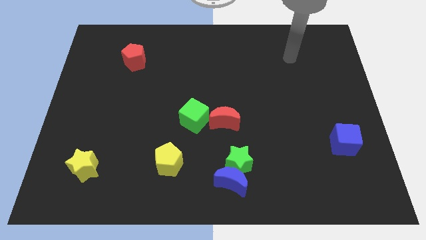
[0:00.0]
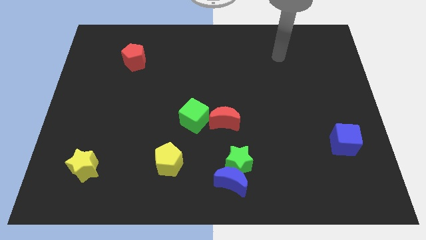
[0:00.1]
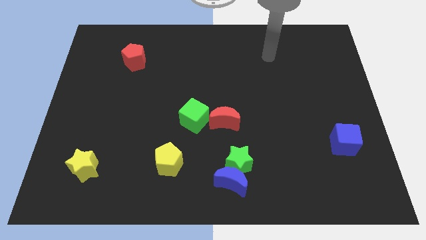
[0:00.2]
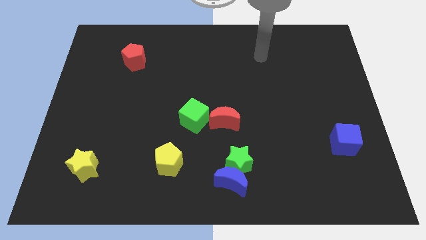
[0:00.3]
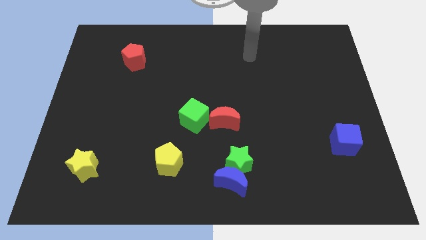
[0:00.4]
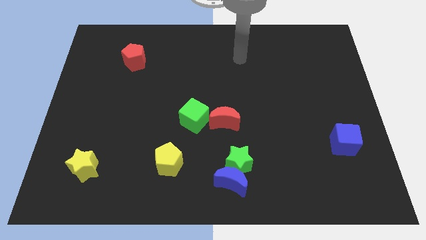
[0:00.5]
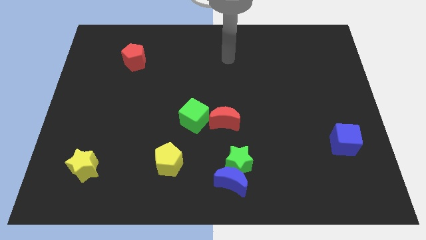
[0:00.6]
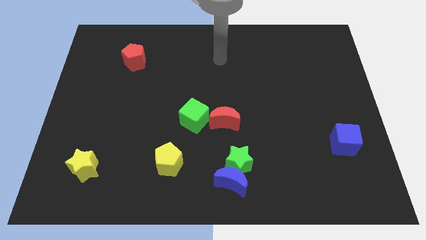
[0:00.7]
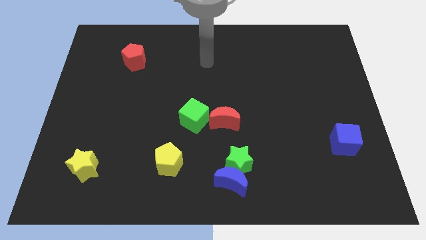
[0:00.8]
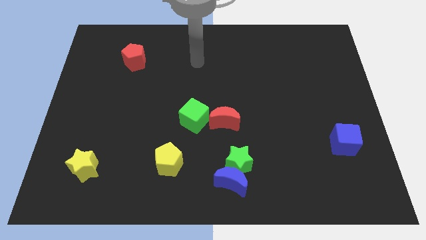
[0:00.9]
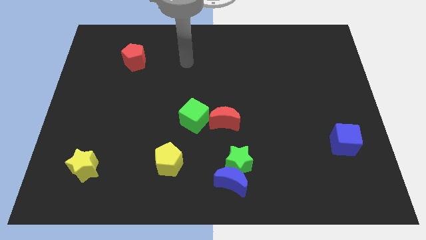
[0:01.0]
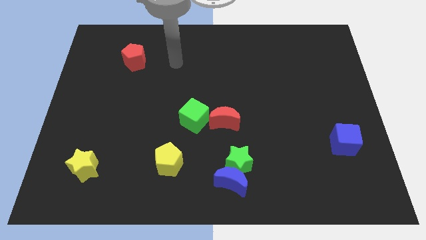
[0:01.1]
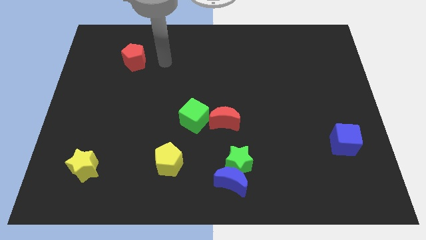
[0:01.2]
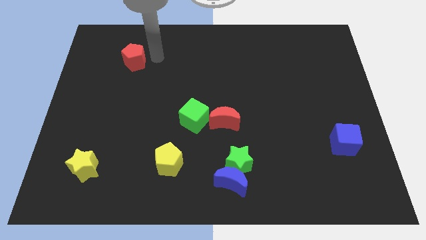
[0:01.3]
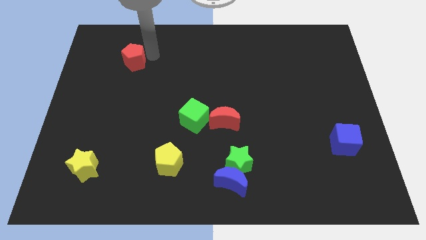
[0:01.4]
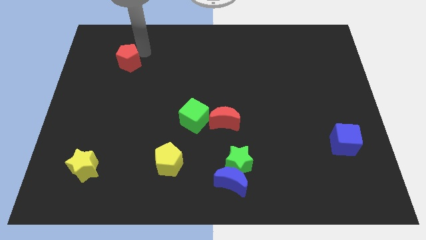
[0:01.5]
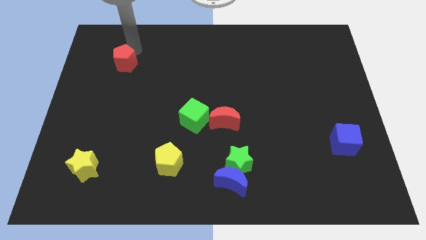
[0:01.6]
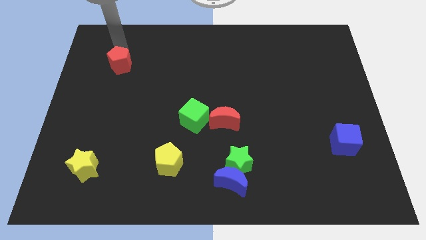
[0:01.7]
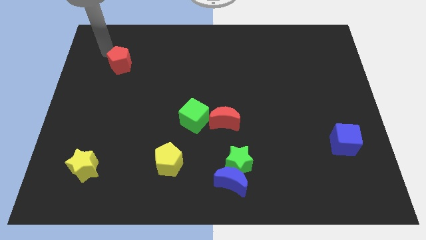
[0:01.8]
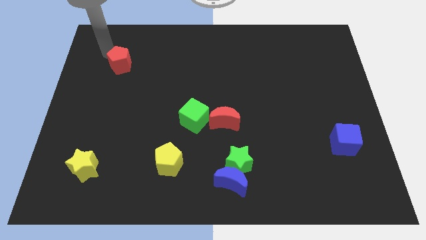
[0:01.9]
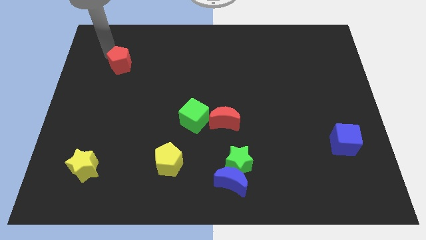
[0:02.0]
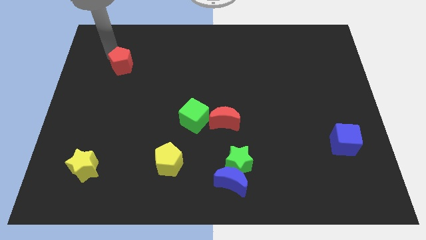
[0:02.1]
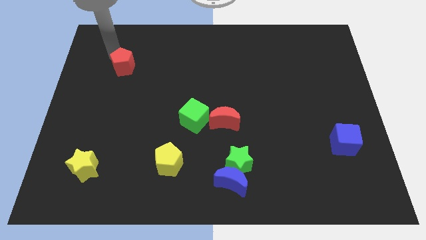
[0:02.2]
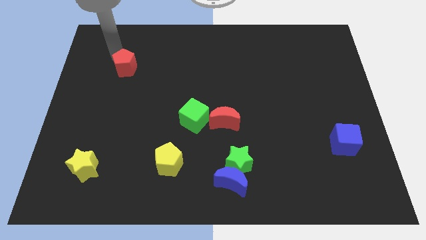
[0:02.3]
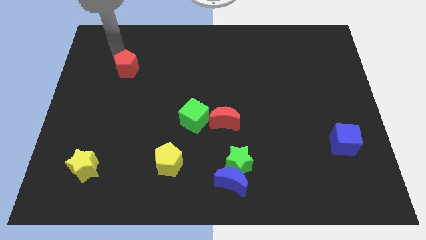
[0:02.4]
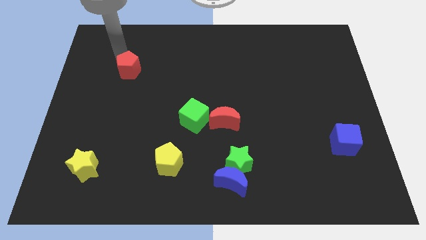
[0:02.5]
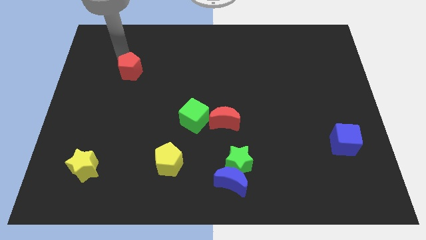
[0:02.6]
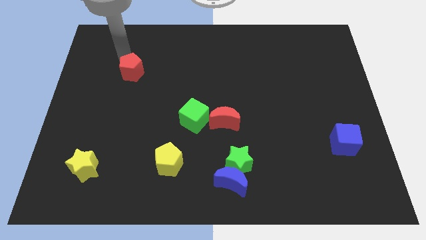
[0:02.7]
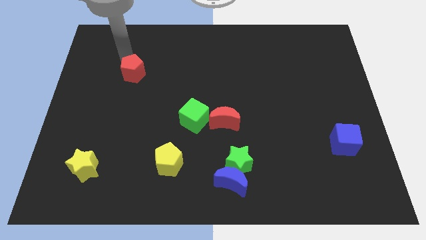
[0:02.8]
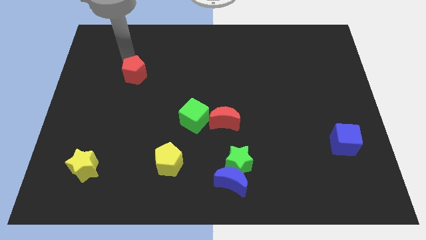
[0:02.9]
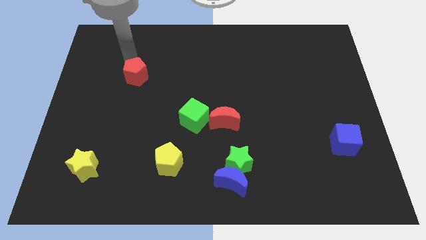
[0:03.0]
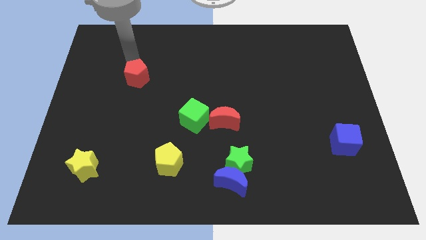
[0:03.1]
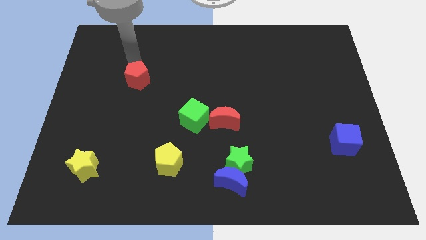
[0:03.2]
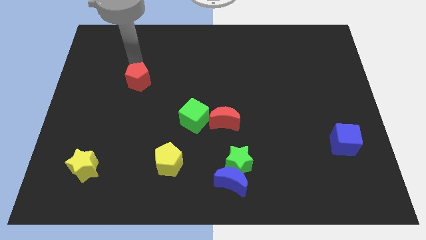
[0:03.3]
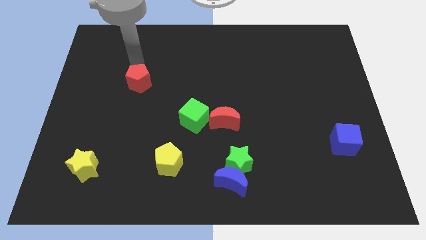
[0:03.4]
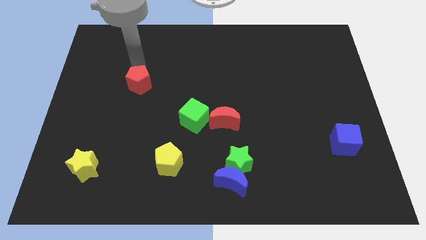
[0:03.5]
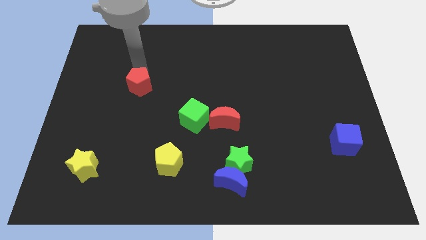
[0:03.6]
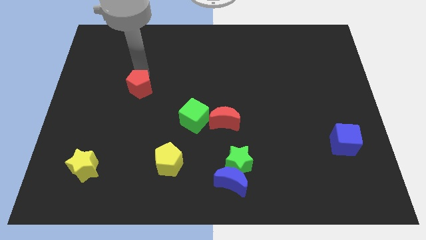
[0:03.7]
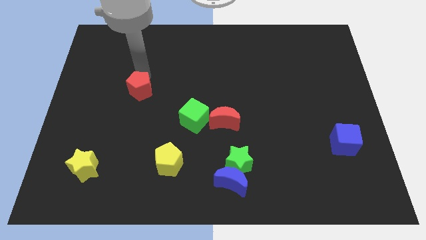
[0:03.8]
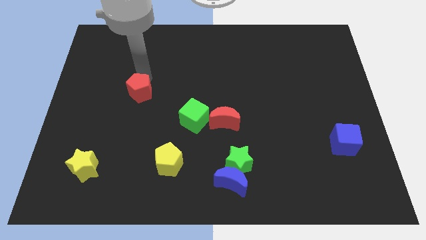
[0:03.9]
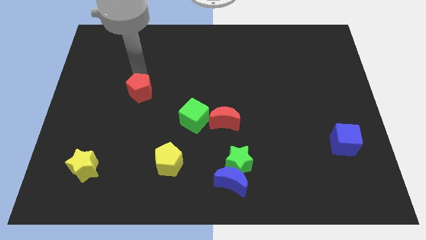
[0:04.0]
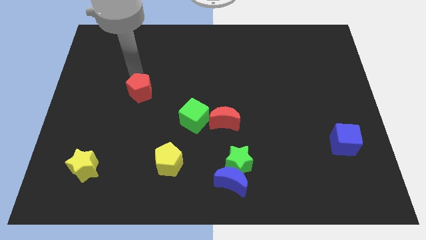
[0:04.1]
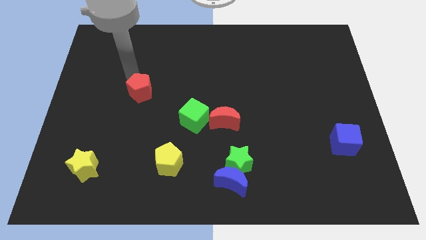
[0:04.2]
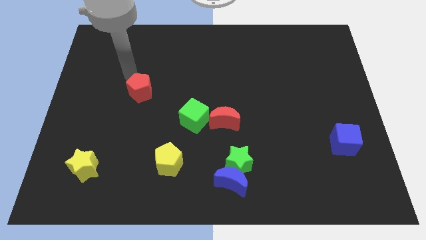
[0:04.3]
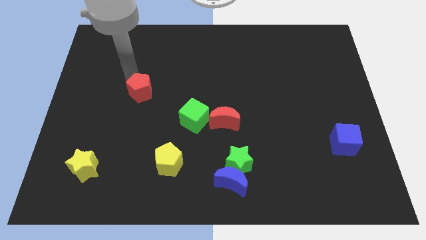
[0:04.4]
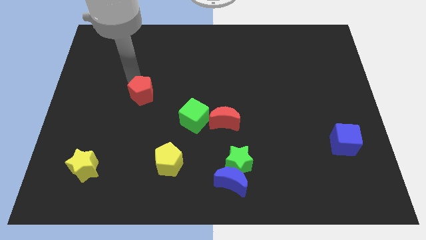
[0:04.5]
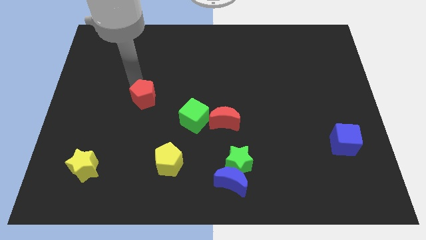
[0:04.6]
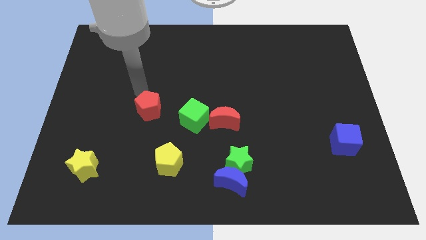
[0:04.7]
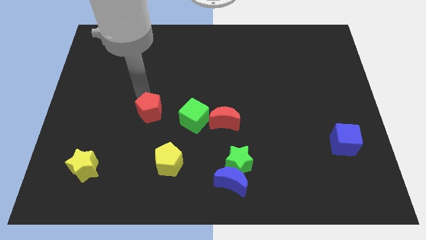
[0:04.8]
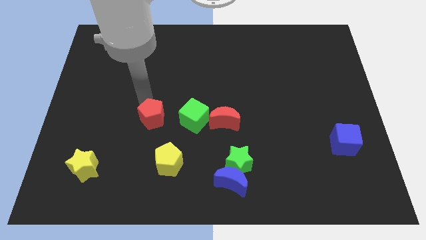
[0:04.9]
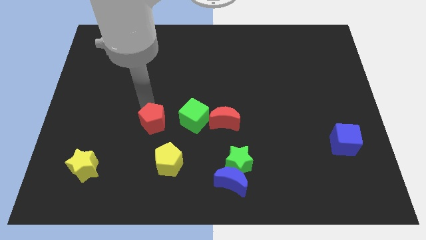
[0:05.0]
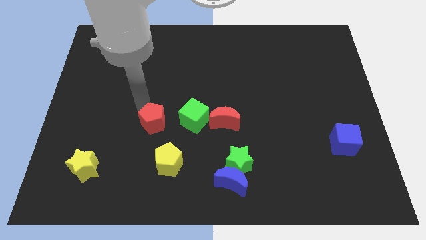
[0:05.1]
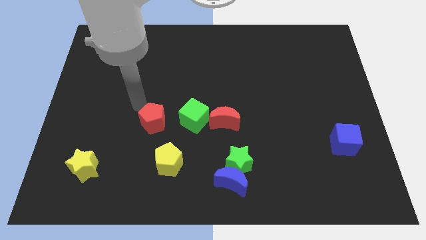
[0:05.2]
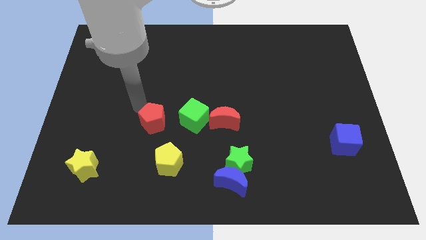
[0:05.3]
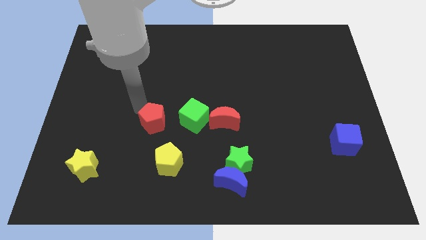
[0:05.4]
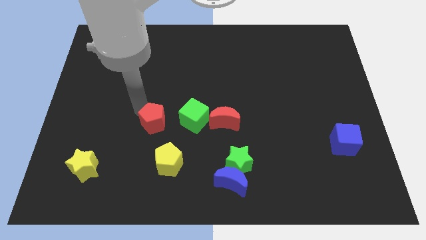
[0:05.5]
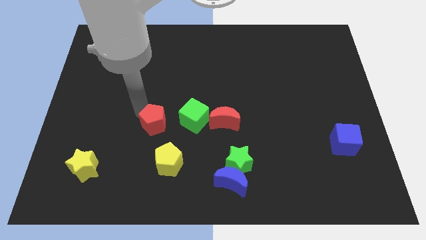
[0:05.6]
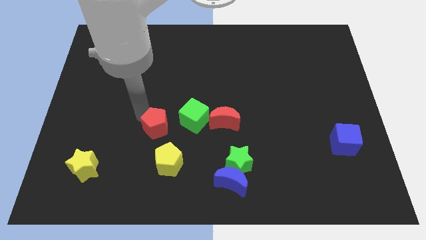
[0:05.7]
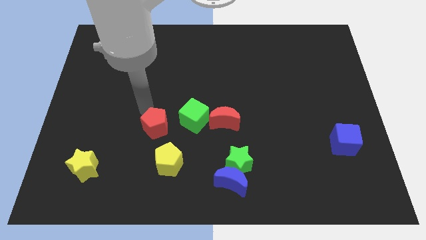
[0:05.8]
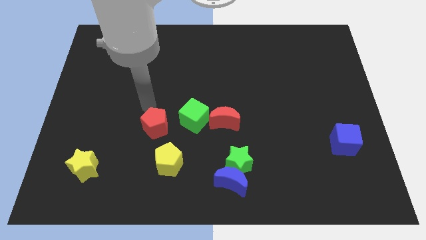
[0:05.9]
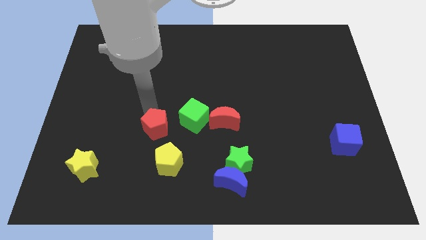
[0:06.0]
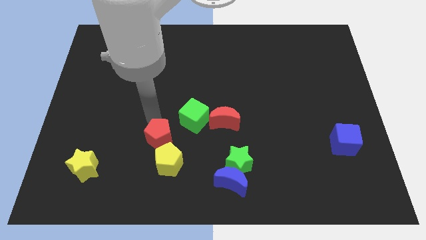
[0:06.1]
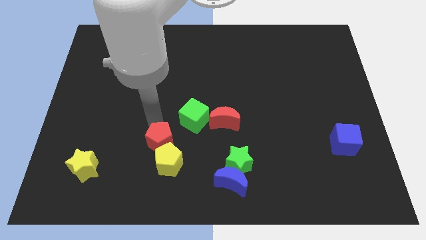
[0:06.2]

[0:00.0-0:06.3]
push the red pentagon close to the yellow pentagon

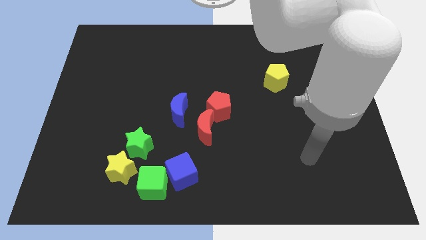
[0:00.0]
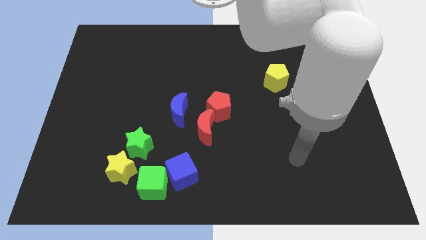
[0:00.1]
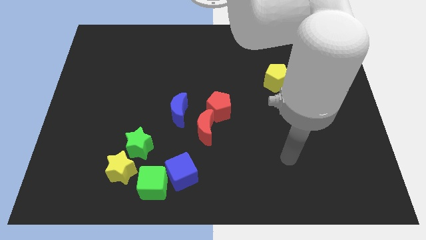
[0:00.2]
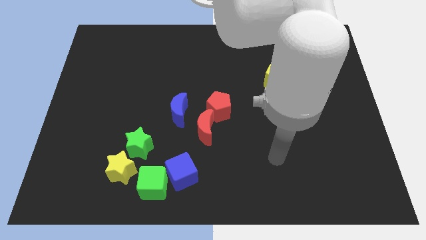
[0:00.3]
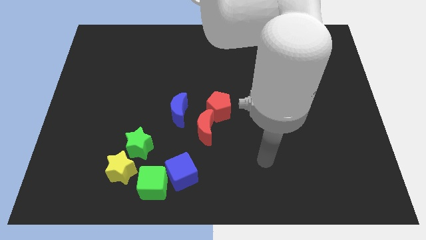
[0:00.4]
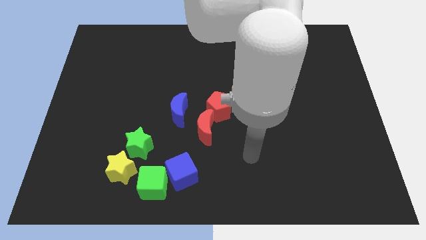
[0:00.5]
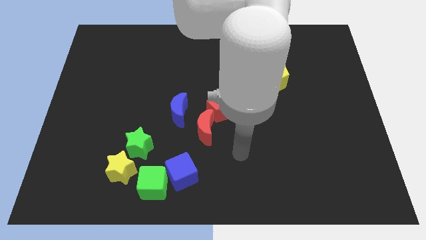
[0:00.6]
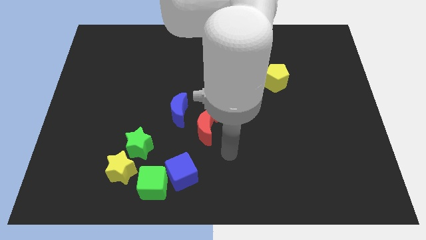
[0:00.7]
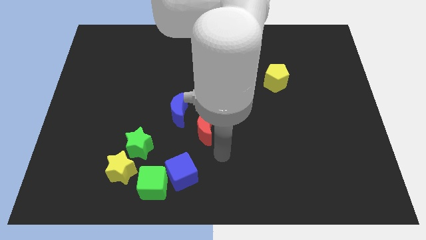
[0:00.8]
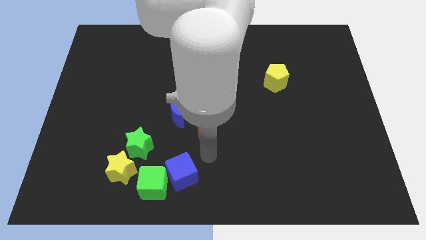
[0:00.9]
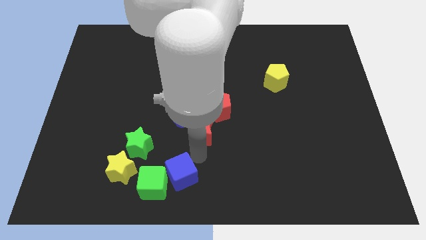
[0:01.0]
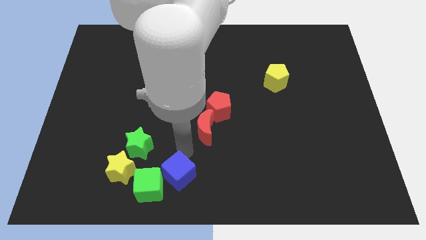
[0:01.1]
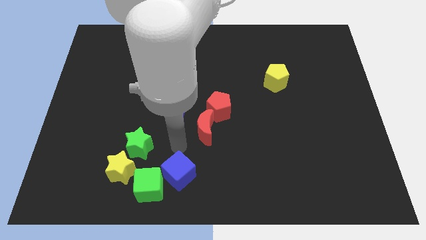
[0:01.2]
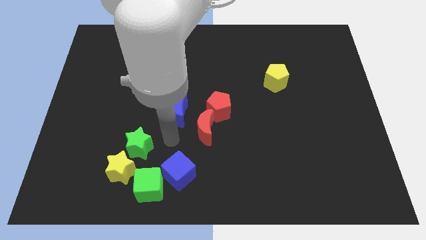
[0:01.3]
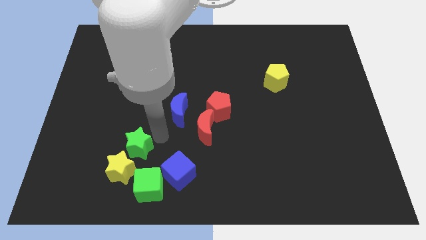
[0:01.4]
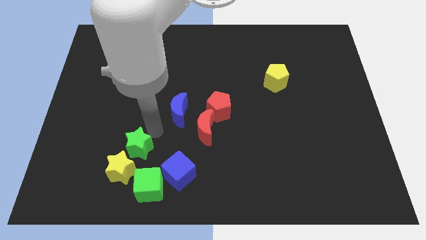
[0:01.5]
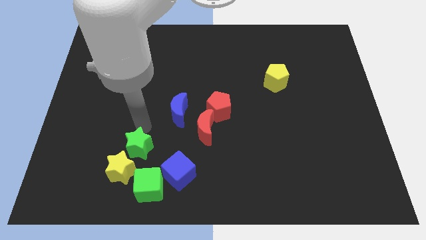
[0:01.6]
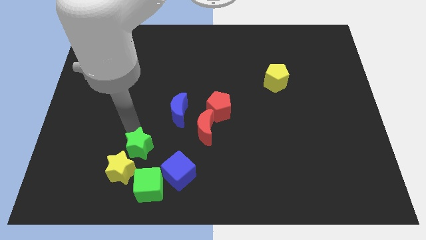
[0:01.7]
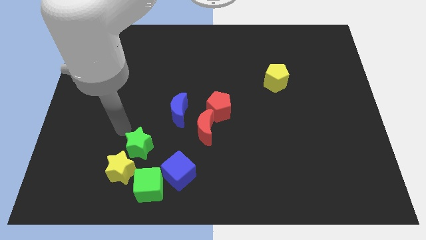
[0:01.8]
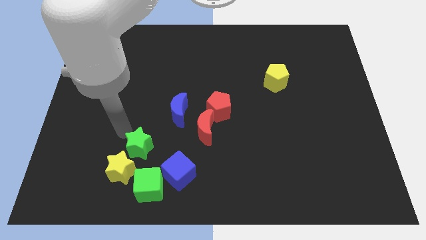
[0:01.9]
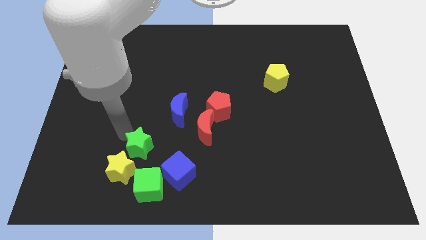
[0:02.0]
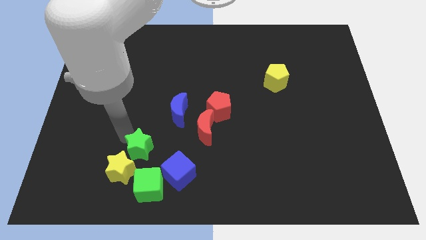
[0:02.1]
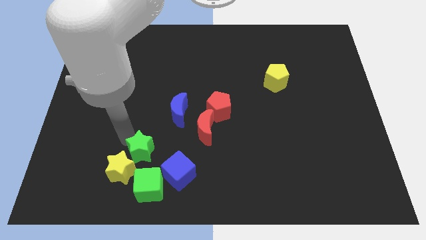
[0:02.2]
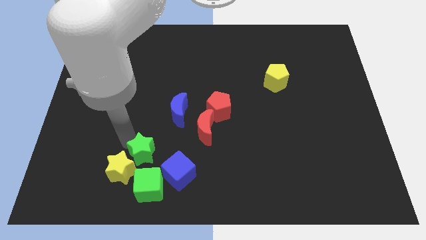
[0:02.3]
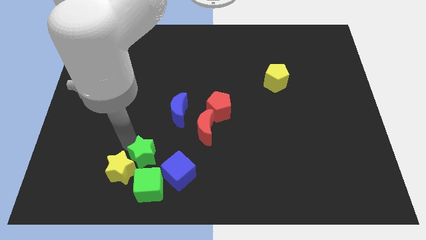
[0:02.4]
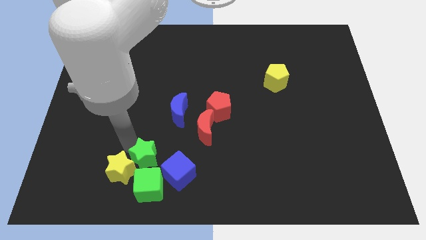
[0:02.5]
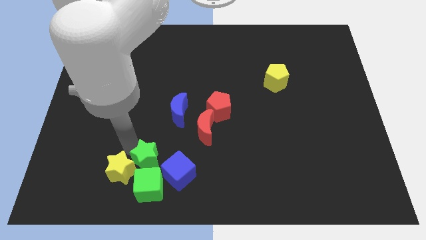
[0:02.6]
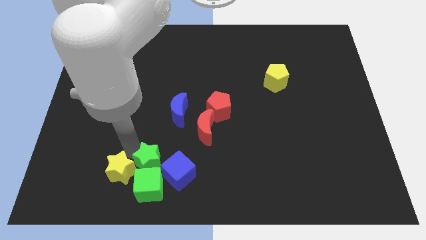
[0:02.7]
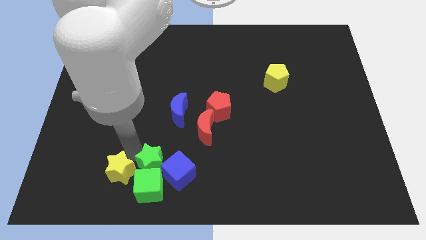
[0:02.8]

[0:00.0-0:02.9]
move the green star towards the blue cube
